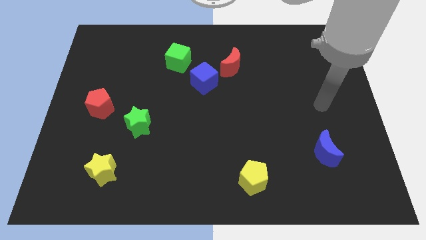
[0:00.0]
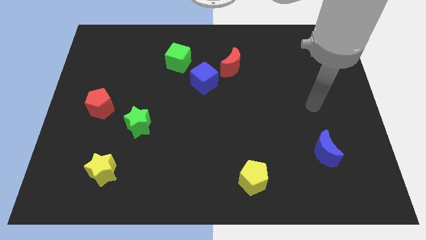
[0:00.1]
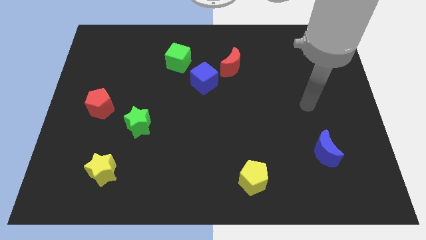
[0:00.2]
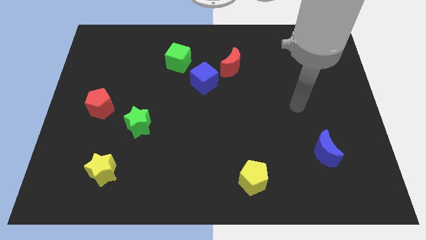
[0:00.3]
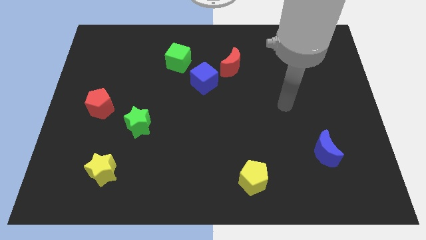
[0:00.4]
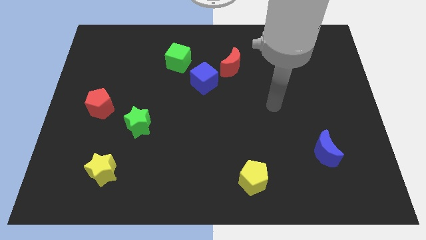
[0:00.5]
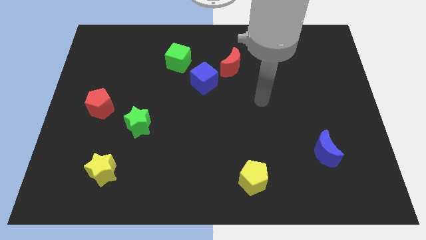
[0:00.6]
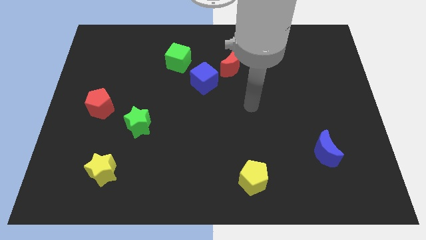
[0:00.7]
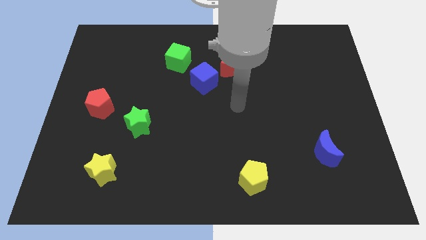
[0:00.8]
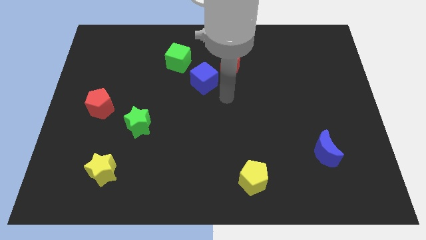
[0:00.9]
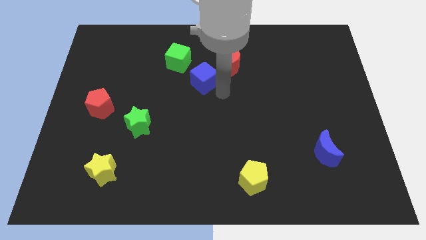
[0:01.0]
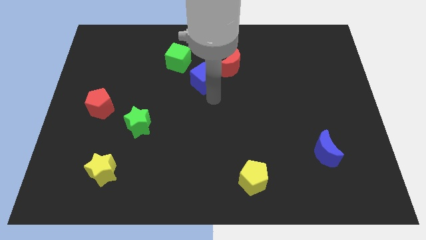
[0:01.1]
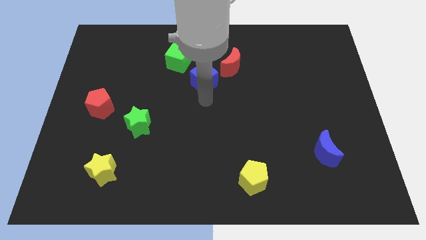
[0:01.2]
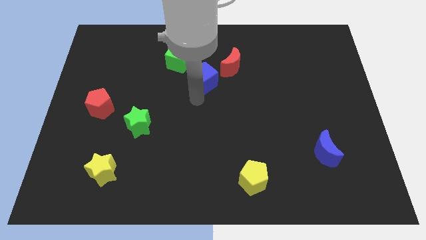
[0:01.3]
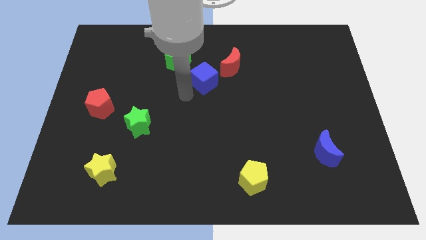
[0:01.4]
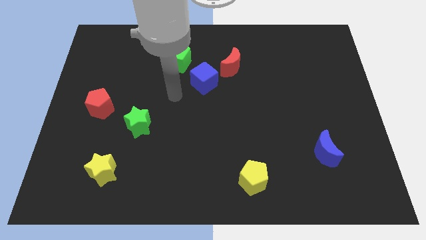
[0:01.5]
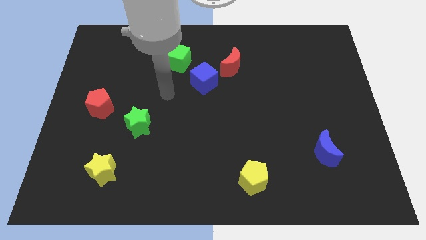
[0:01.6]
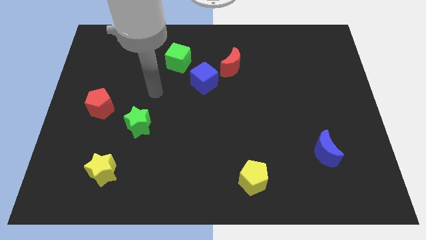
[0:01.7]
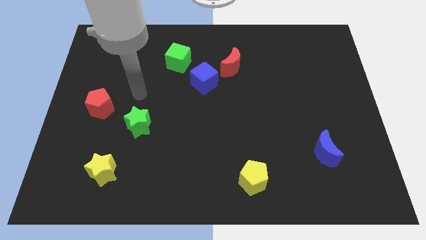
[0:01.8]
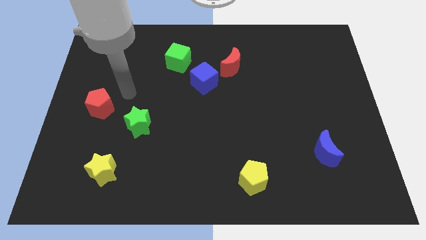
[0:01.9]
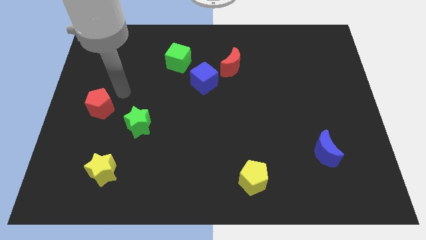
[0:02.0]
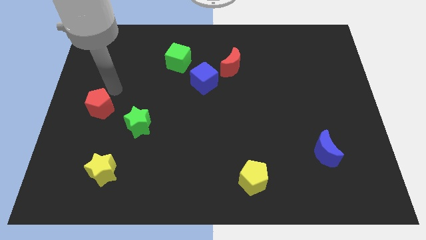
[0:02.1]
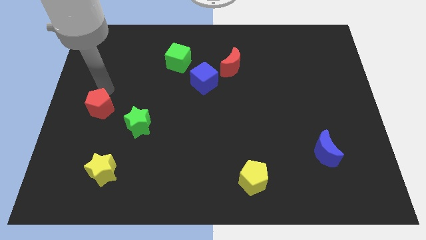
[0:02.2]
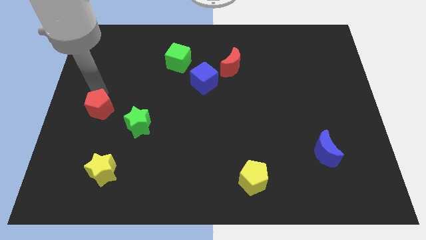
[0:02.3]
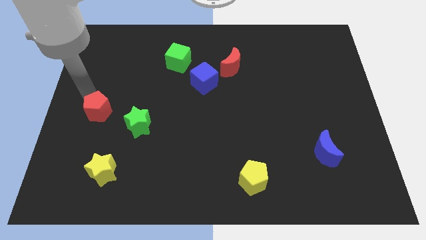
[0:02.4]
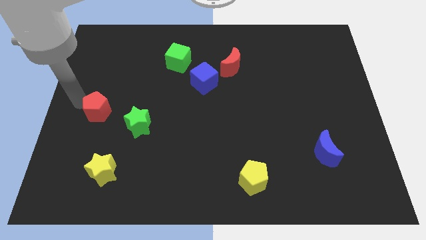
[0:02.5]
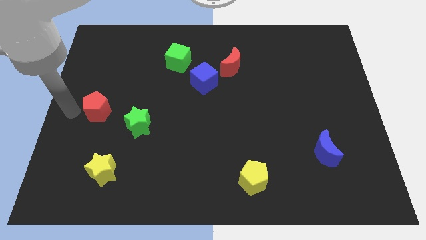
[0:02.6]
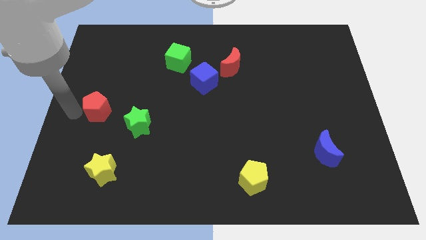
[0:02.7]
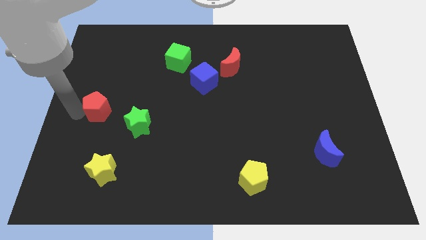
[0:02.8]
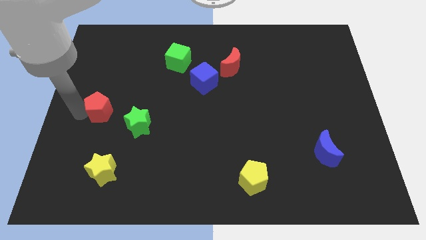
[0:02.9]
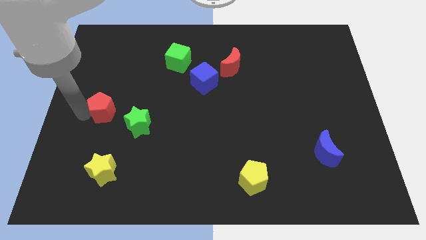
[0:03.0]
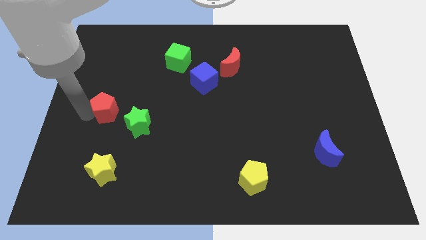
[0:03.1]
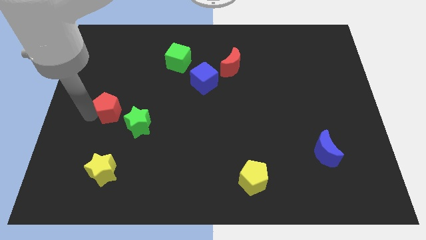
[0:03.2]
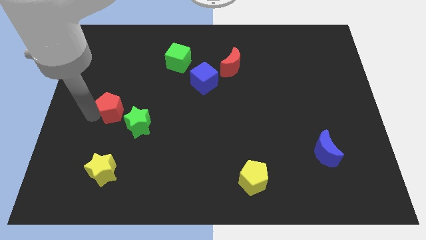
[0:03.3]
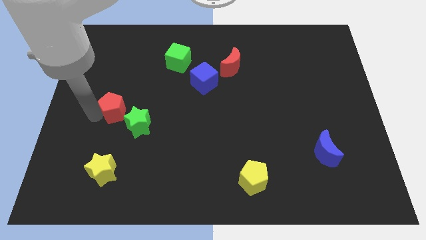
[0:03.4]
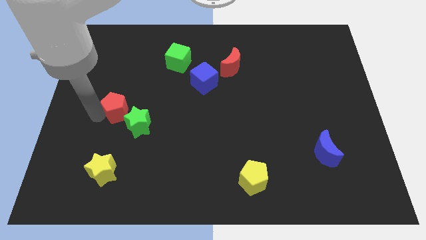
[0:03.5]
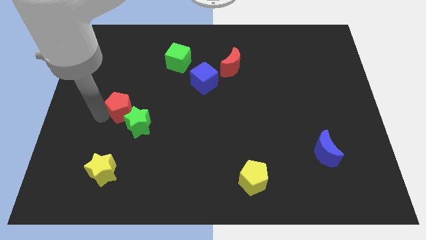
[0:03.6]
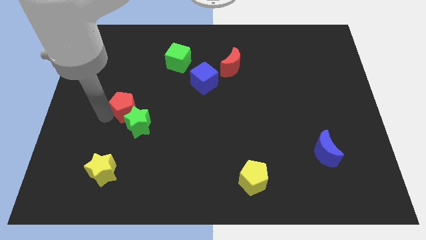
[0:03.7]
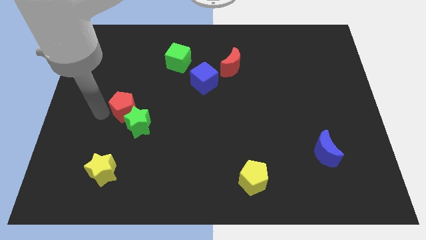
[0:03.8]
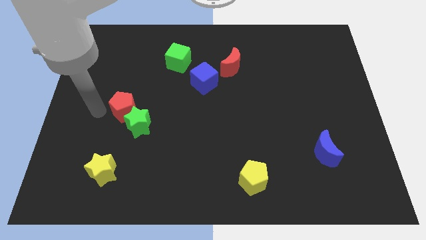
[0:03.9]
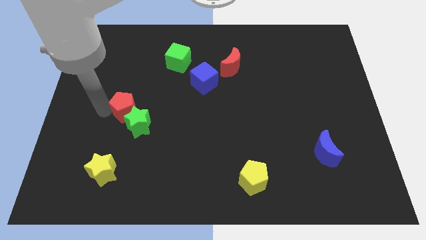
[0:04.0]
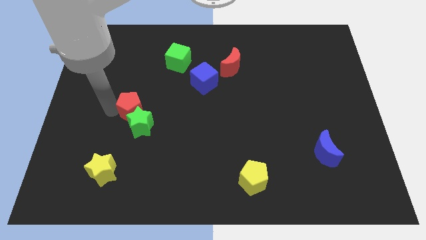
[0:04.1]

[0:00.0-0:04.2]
move the red pentagon to the right somewhat

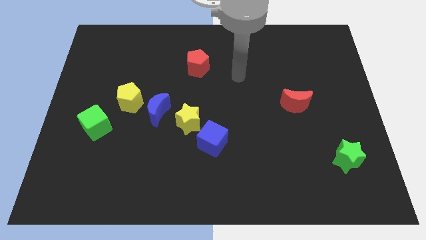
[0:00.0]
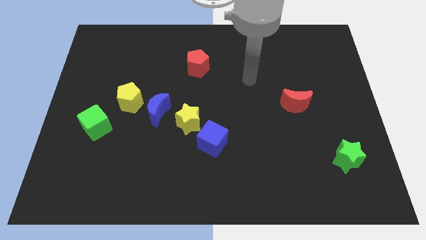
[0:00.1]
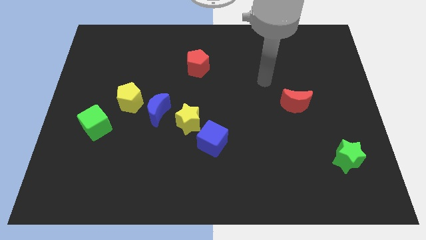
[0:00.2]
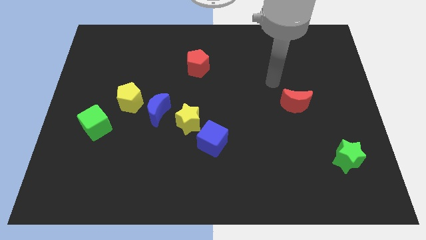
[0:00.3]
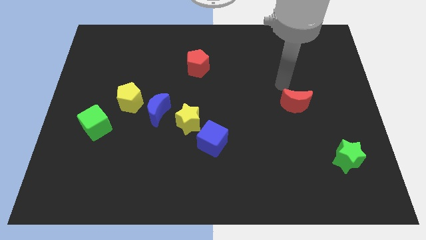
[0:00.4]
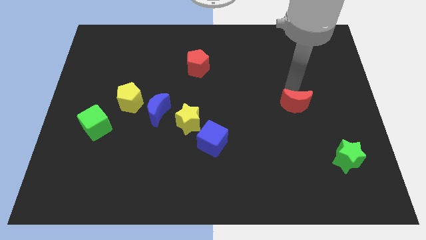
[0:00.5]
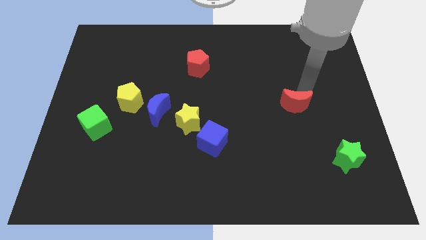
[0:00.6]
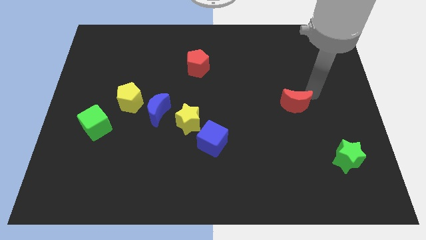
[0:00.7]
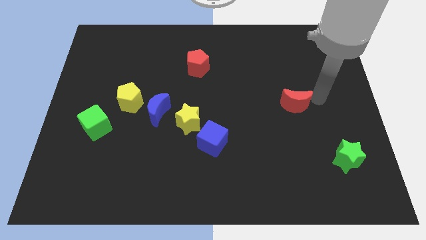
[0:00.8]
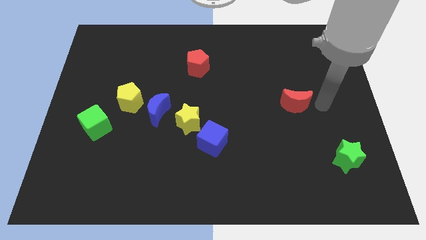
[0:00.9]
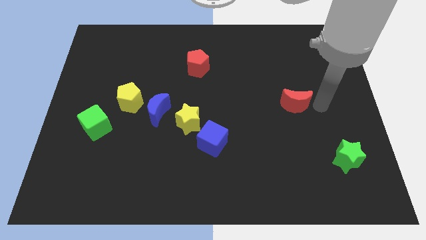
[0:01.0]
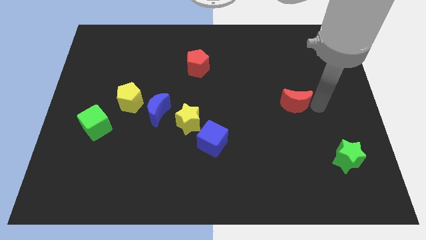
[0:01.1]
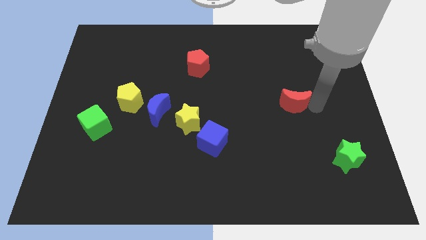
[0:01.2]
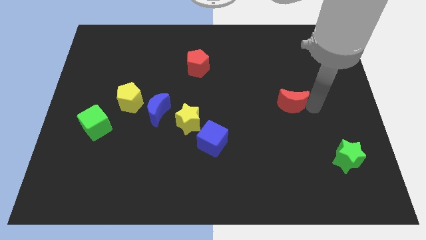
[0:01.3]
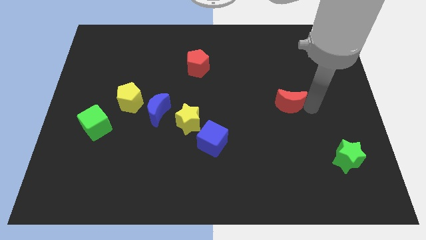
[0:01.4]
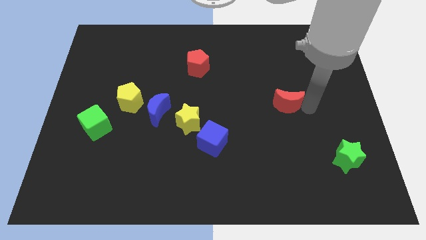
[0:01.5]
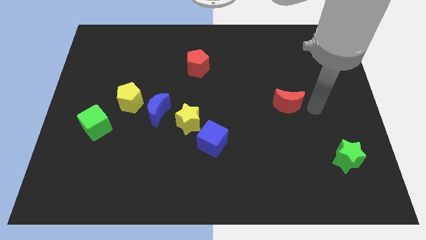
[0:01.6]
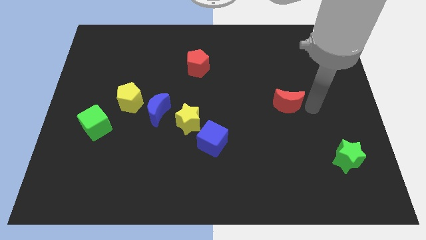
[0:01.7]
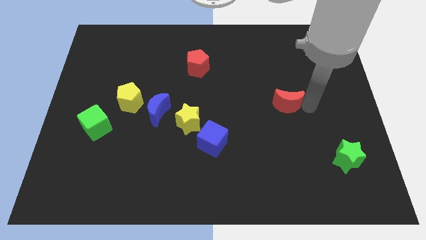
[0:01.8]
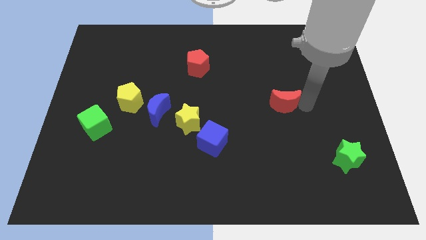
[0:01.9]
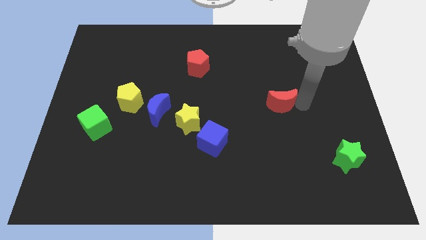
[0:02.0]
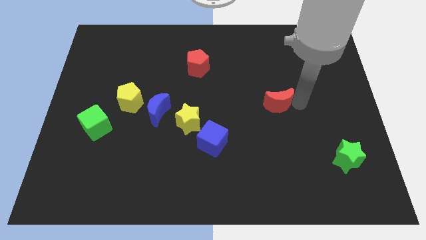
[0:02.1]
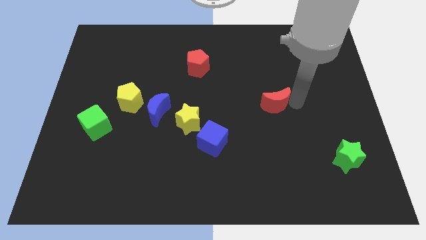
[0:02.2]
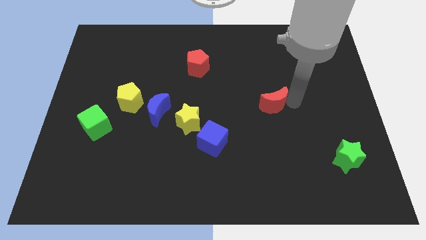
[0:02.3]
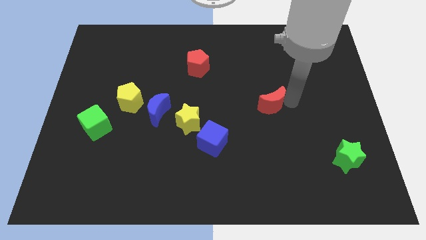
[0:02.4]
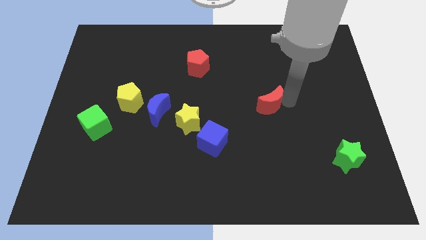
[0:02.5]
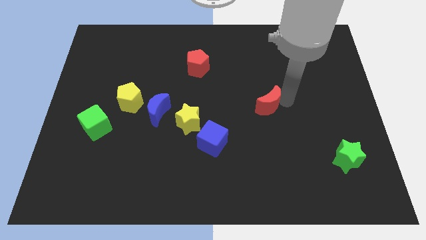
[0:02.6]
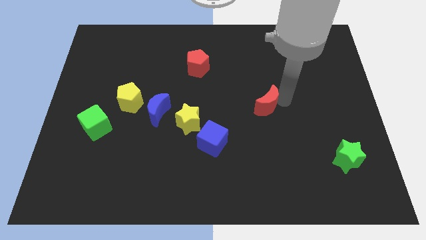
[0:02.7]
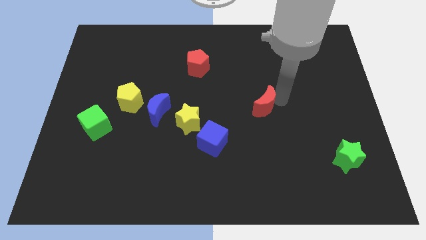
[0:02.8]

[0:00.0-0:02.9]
push the red moon slightly to the left

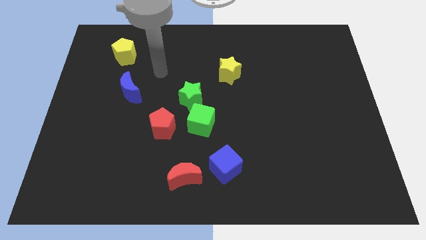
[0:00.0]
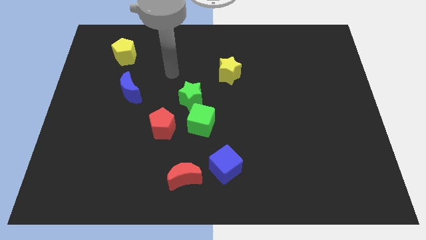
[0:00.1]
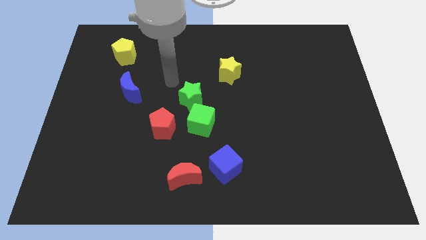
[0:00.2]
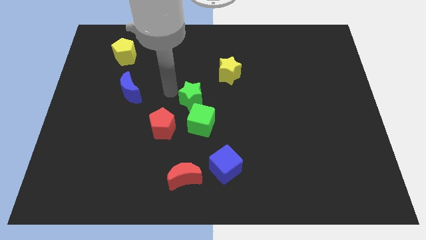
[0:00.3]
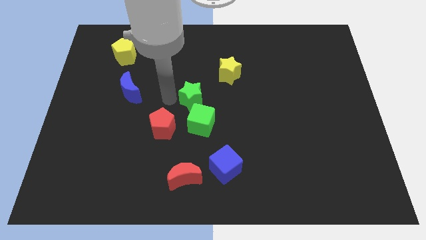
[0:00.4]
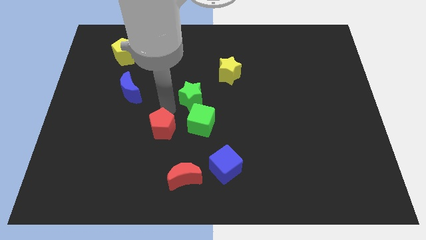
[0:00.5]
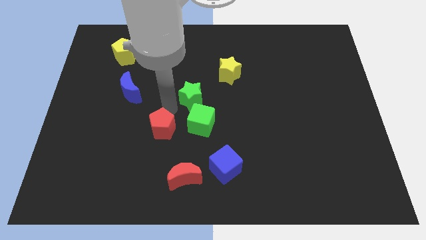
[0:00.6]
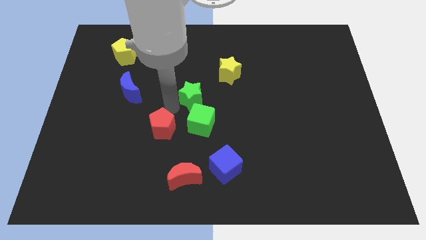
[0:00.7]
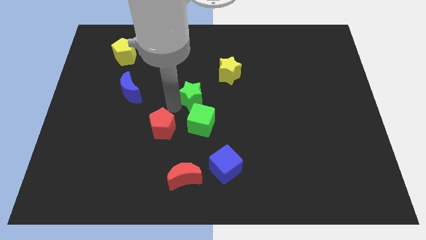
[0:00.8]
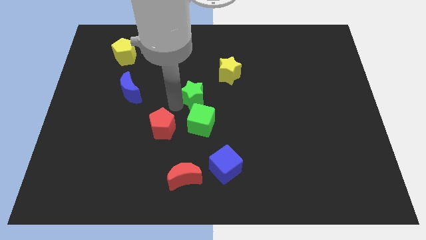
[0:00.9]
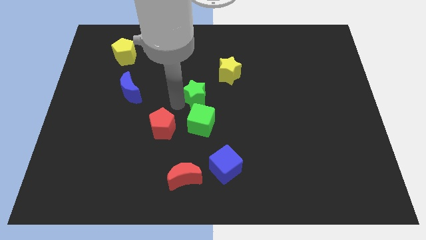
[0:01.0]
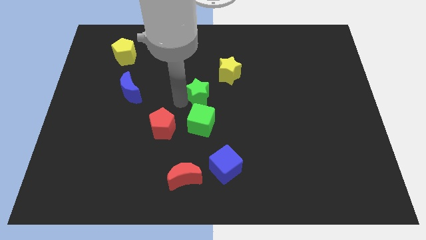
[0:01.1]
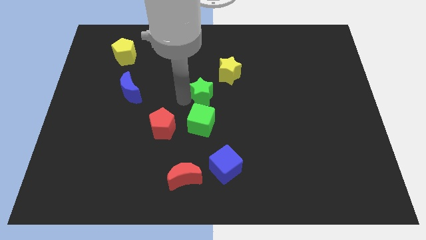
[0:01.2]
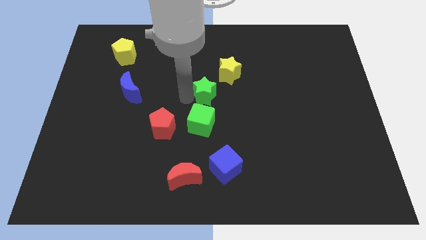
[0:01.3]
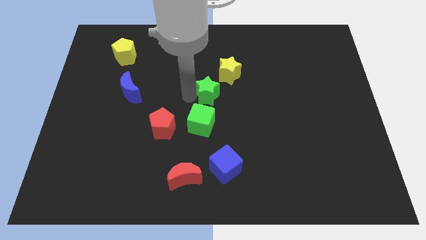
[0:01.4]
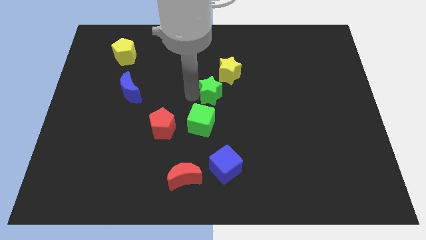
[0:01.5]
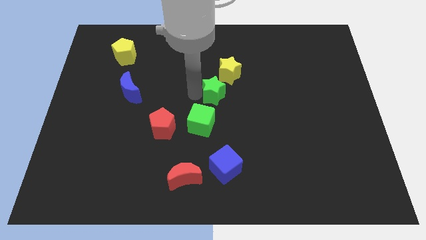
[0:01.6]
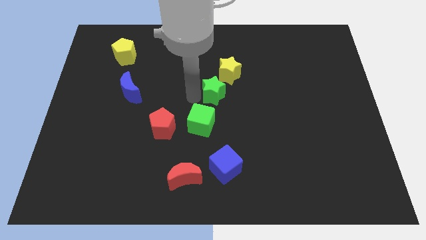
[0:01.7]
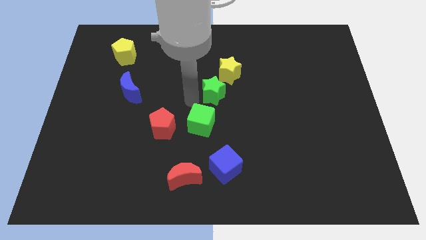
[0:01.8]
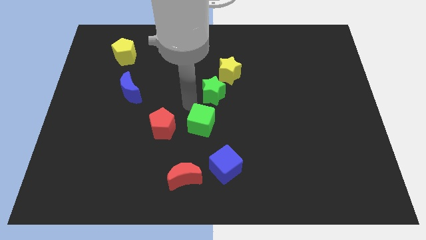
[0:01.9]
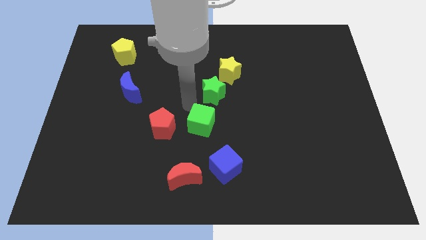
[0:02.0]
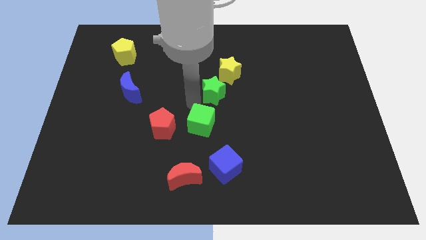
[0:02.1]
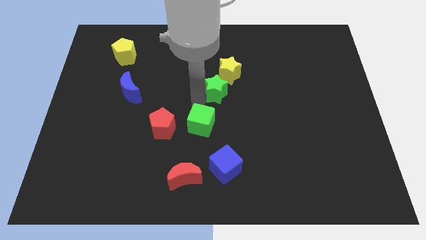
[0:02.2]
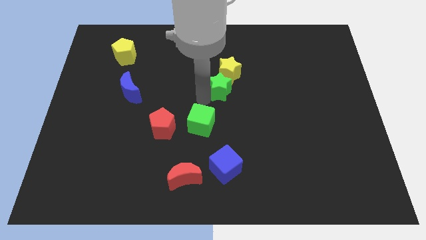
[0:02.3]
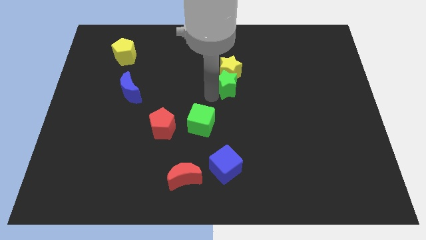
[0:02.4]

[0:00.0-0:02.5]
push the green star somewhat up and to the right diagonally
